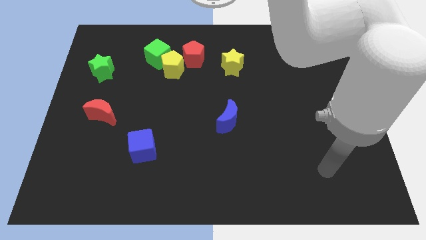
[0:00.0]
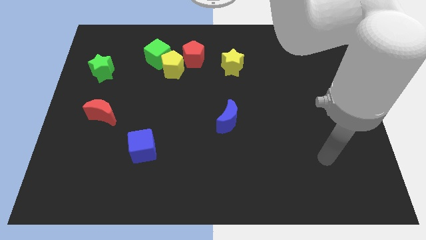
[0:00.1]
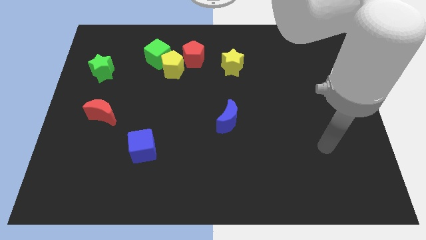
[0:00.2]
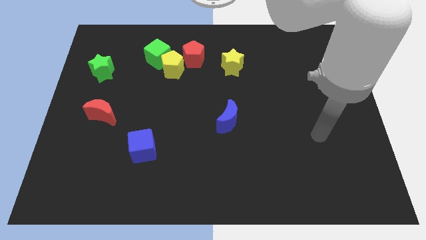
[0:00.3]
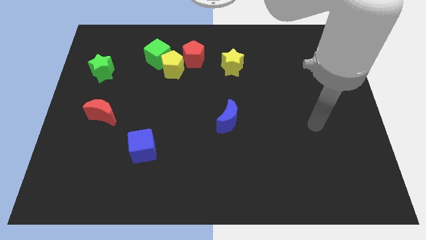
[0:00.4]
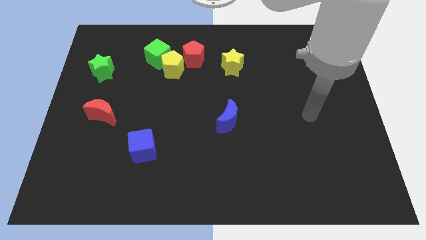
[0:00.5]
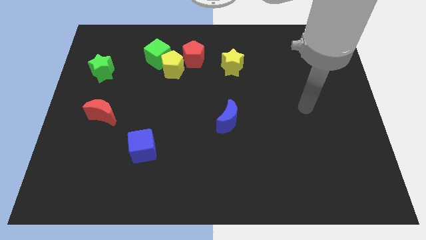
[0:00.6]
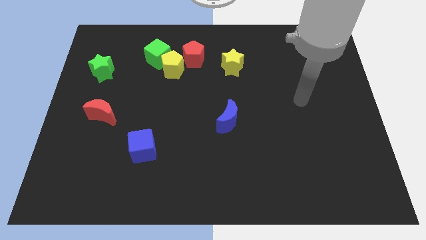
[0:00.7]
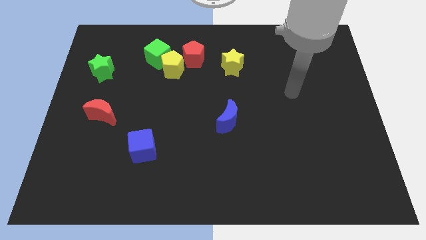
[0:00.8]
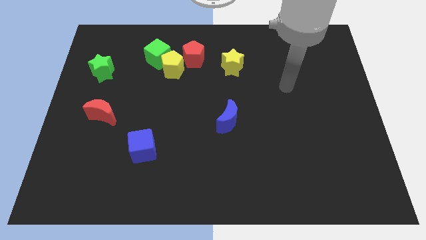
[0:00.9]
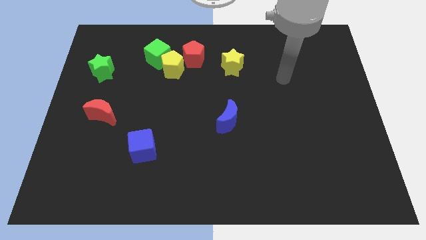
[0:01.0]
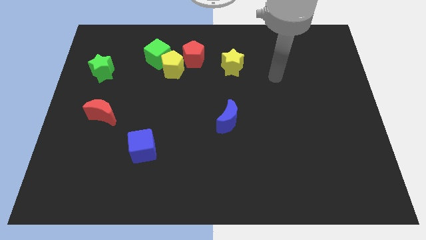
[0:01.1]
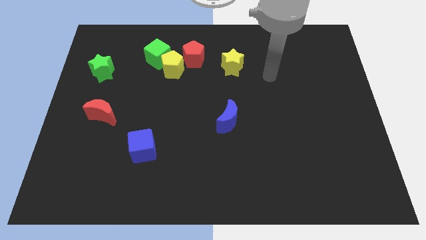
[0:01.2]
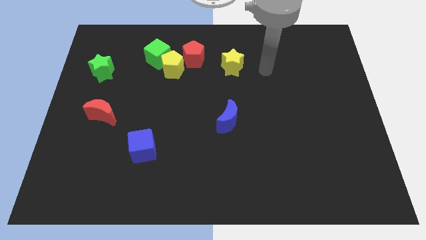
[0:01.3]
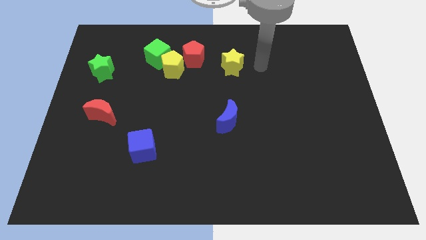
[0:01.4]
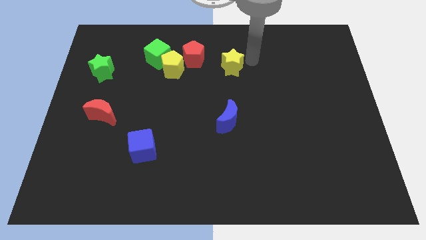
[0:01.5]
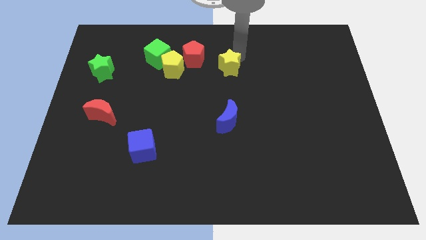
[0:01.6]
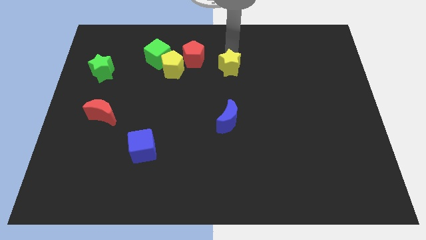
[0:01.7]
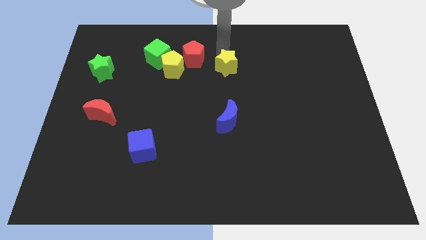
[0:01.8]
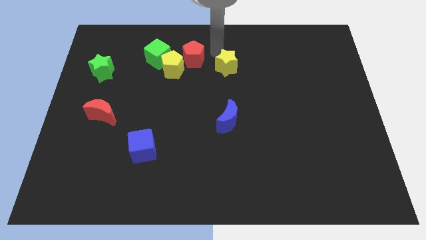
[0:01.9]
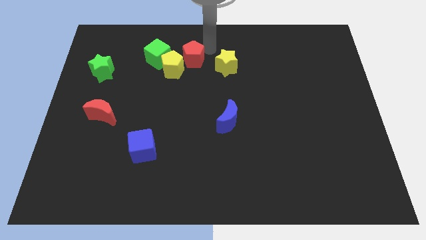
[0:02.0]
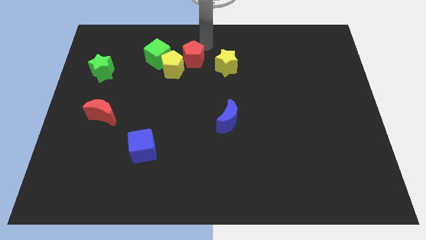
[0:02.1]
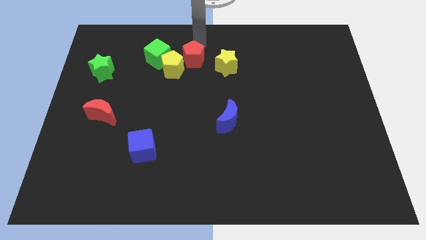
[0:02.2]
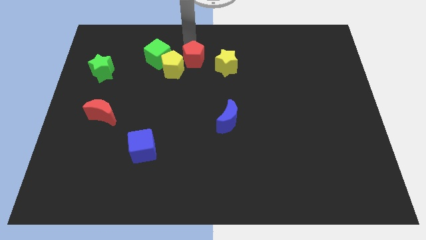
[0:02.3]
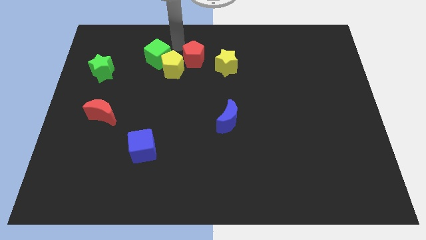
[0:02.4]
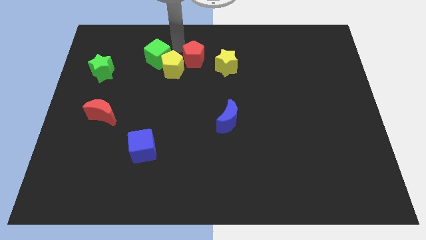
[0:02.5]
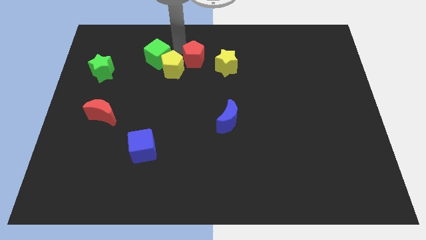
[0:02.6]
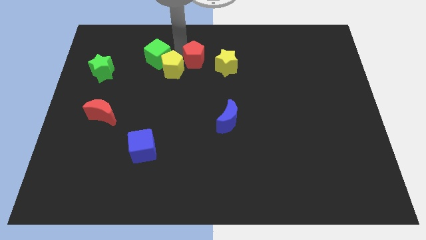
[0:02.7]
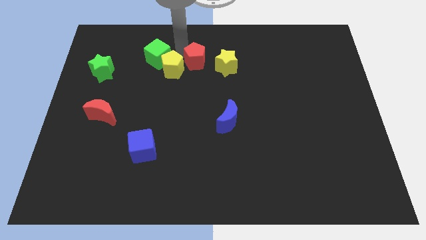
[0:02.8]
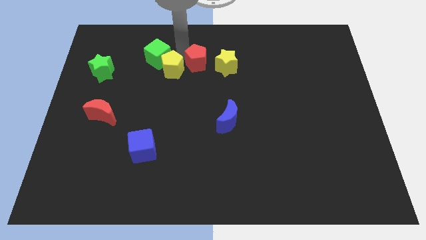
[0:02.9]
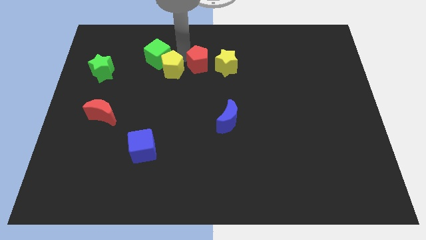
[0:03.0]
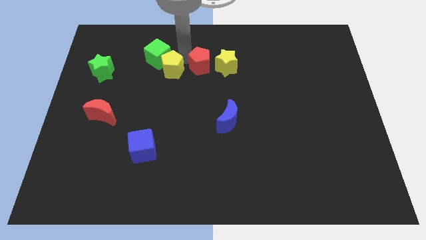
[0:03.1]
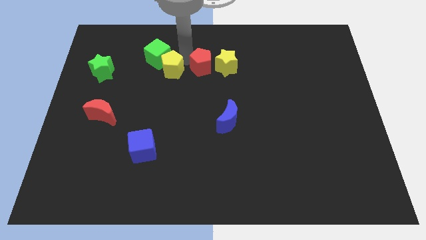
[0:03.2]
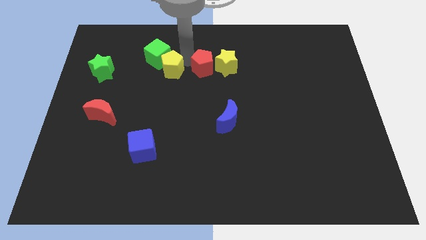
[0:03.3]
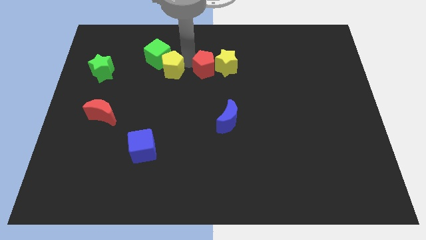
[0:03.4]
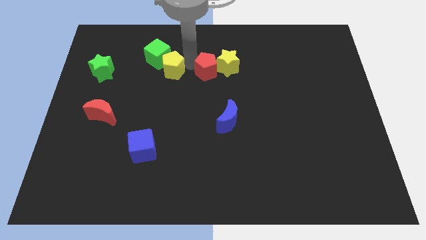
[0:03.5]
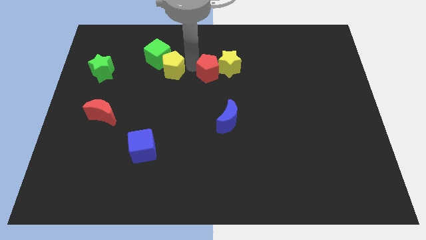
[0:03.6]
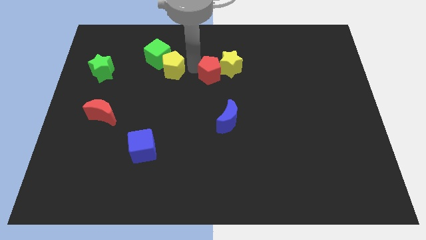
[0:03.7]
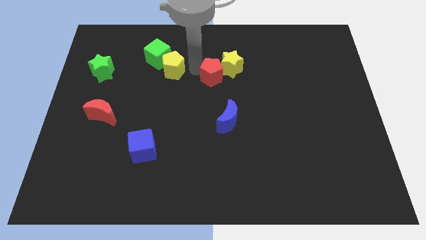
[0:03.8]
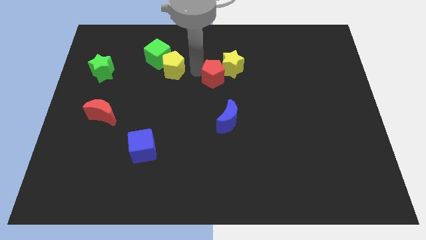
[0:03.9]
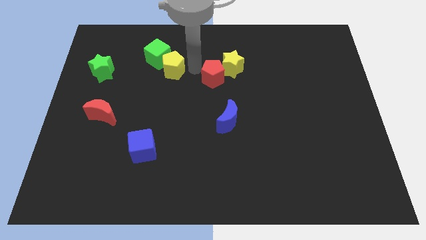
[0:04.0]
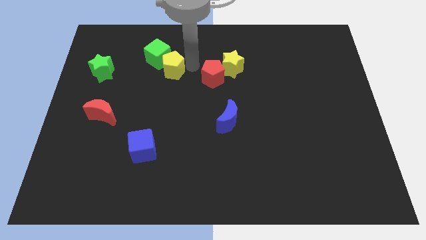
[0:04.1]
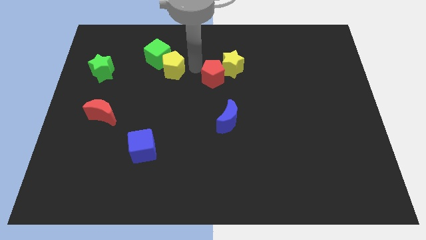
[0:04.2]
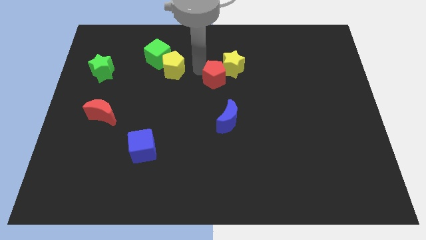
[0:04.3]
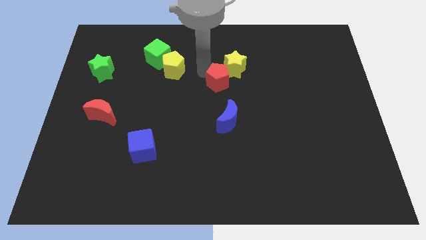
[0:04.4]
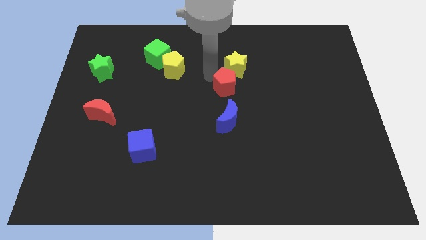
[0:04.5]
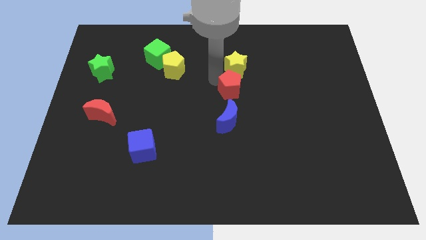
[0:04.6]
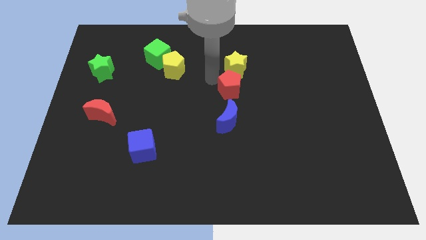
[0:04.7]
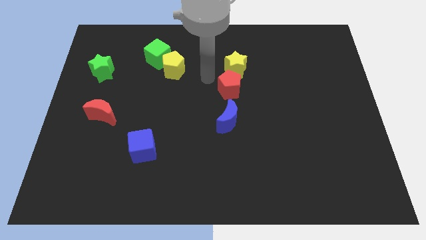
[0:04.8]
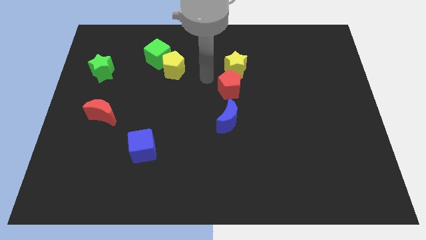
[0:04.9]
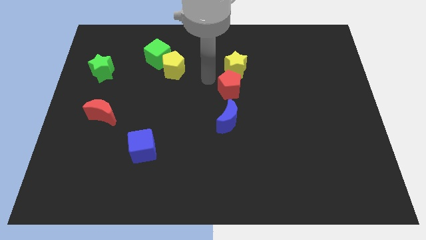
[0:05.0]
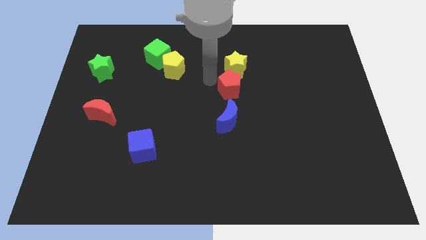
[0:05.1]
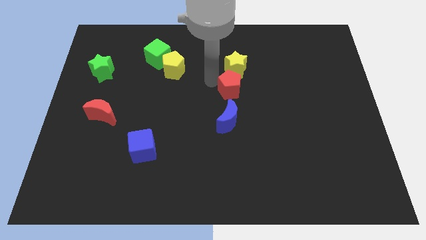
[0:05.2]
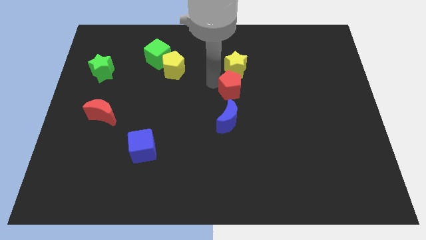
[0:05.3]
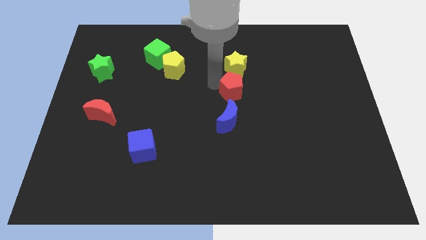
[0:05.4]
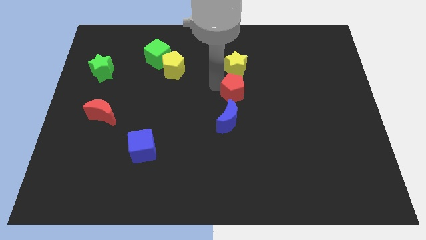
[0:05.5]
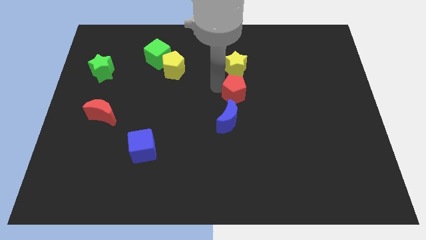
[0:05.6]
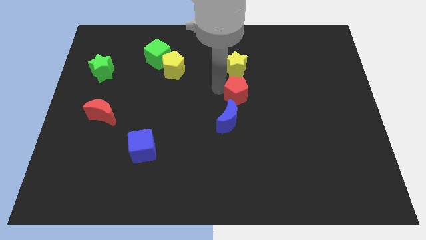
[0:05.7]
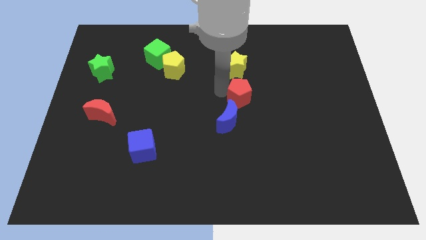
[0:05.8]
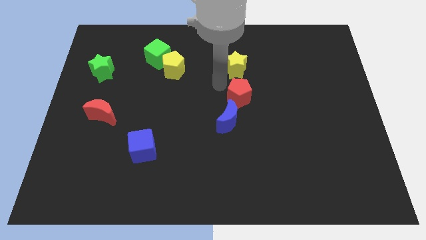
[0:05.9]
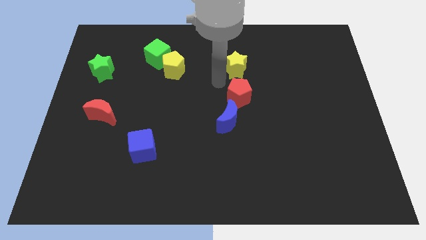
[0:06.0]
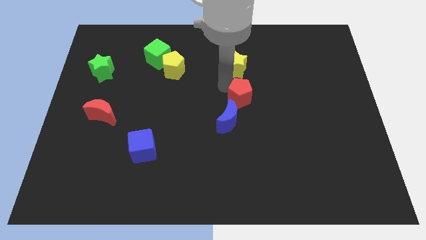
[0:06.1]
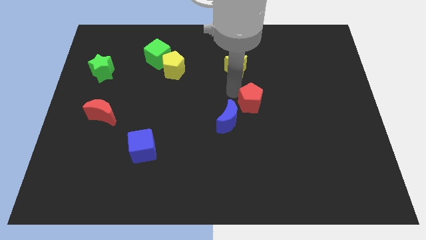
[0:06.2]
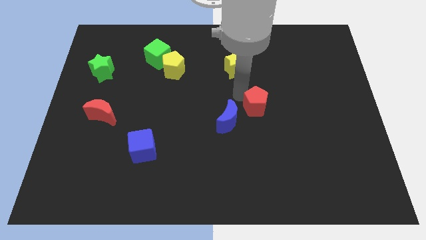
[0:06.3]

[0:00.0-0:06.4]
move the red pentagon right of the blue moon
